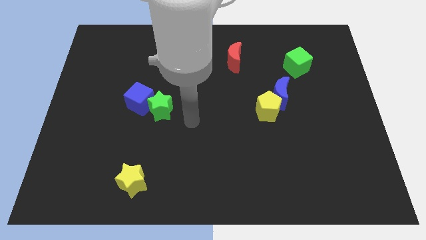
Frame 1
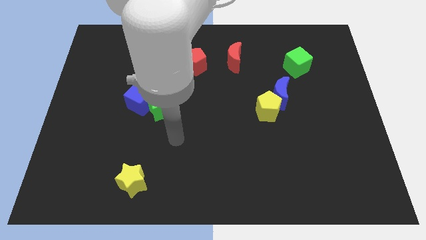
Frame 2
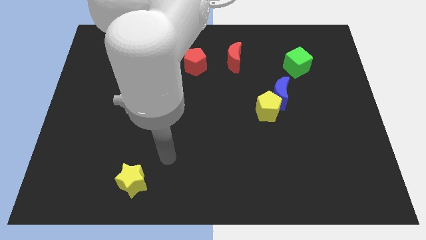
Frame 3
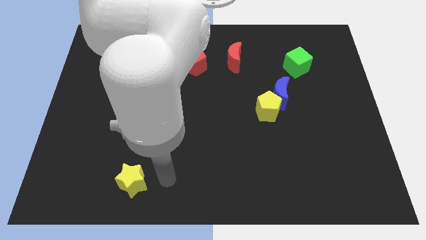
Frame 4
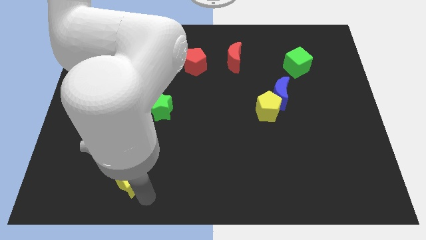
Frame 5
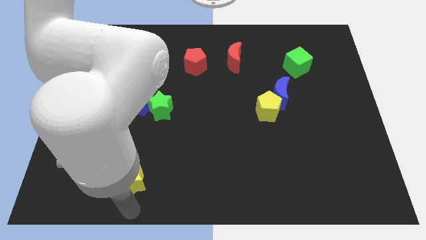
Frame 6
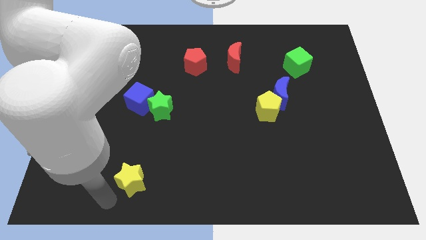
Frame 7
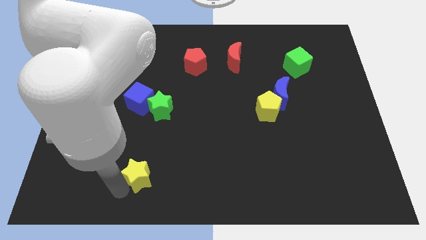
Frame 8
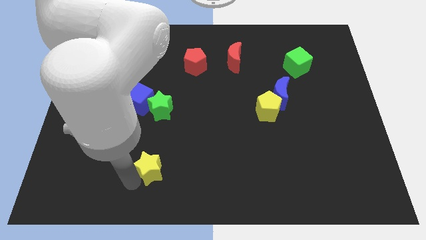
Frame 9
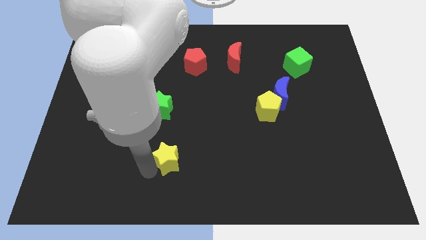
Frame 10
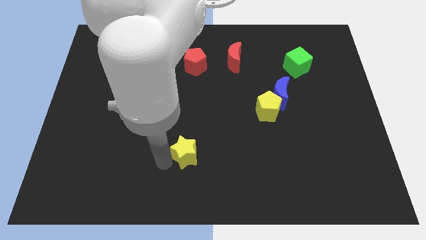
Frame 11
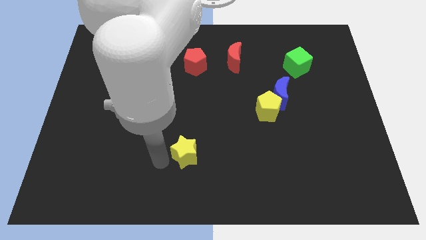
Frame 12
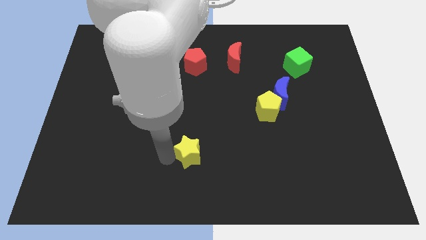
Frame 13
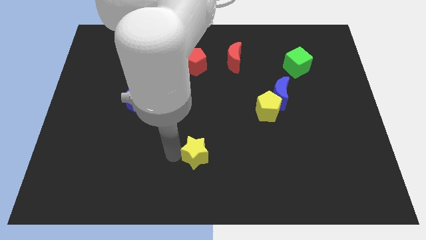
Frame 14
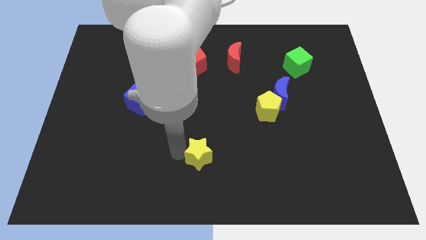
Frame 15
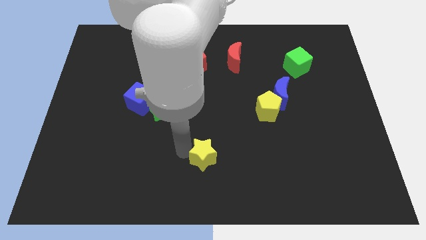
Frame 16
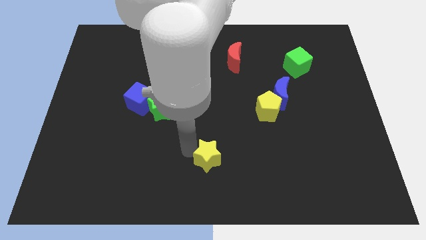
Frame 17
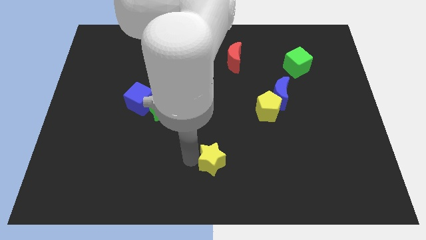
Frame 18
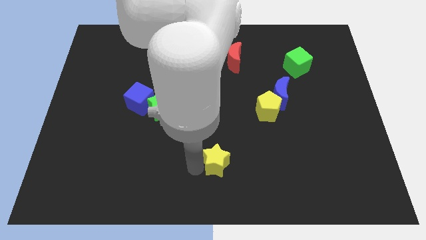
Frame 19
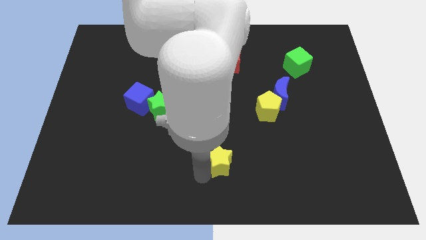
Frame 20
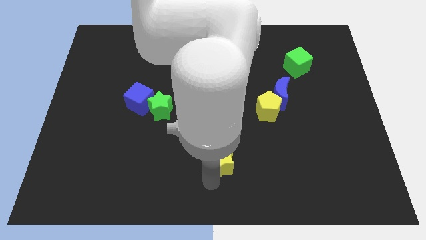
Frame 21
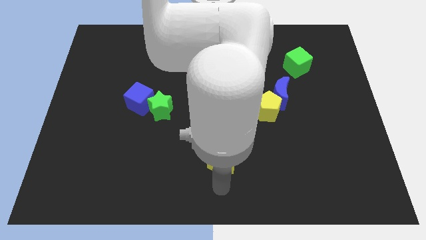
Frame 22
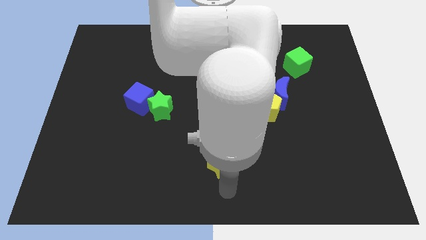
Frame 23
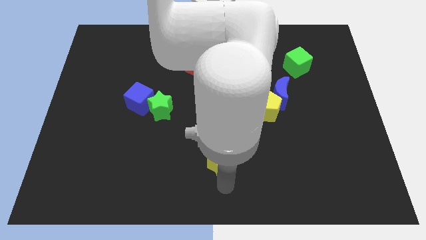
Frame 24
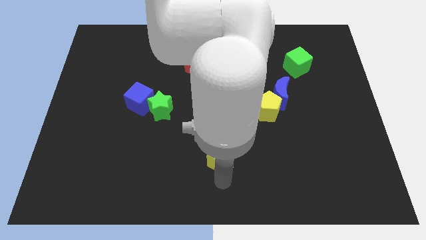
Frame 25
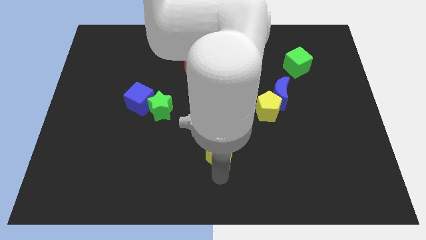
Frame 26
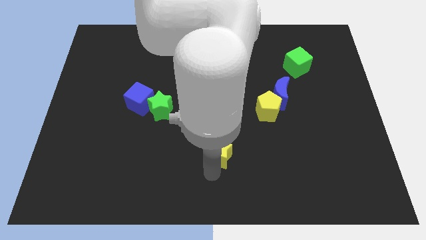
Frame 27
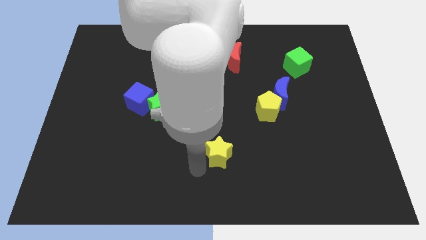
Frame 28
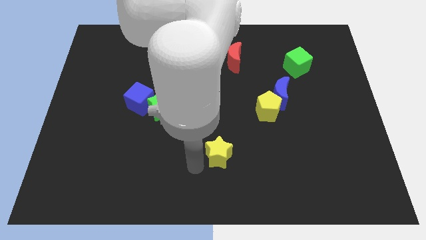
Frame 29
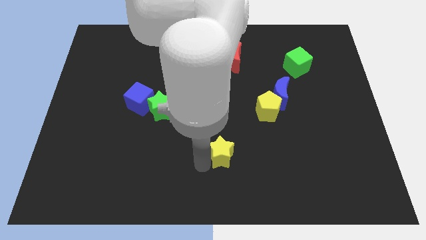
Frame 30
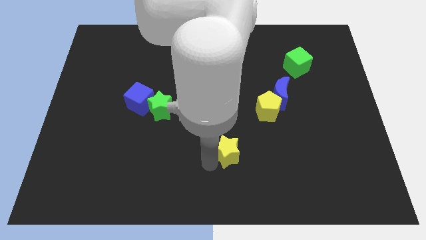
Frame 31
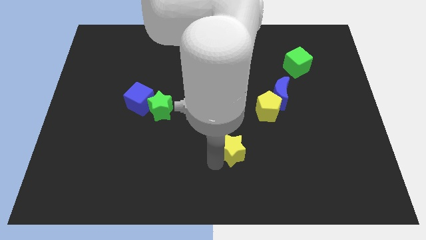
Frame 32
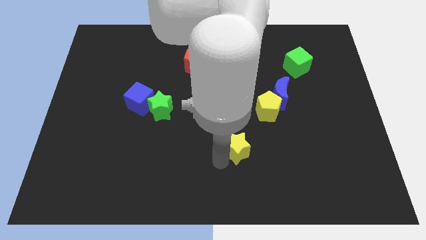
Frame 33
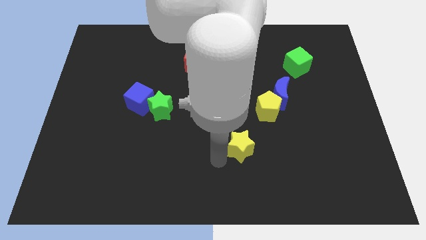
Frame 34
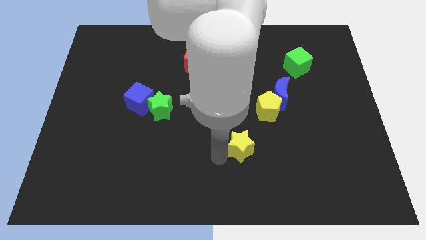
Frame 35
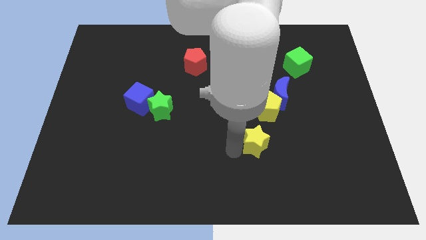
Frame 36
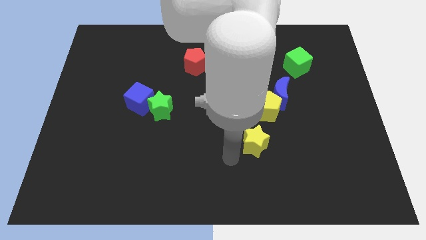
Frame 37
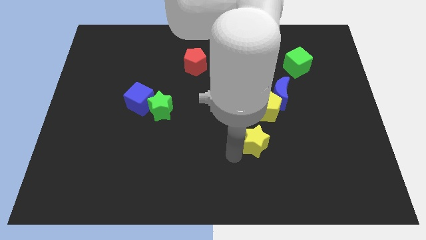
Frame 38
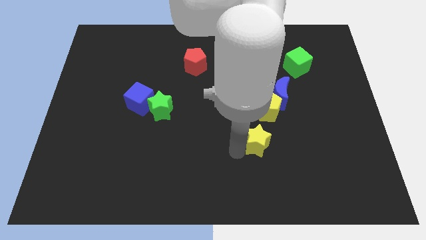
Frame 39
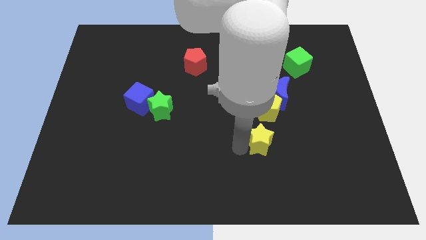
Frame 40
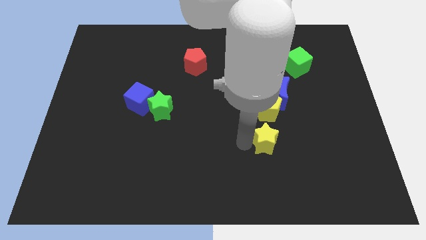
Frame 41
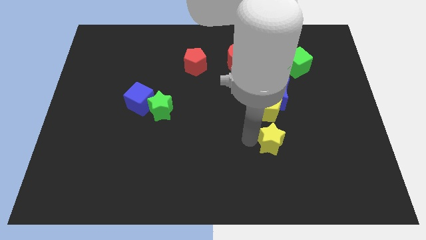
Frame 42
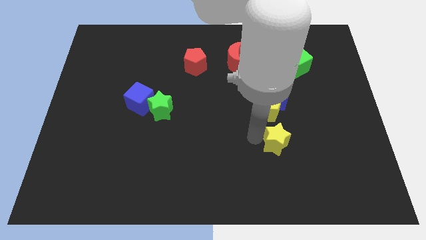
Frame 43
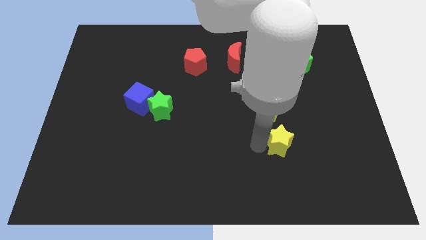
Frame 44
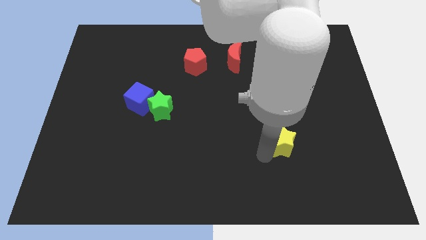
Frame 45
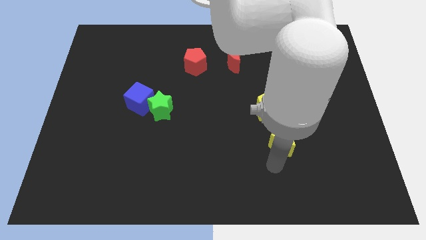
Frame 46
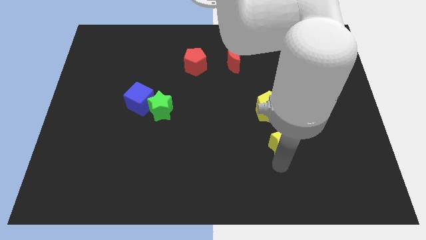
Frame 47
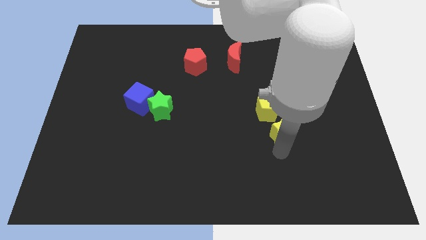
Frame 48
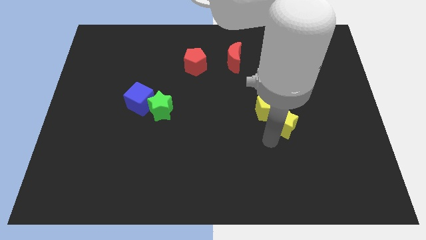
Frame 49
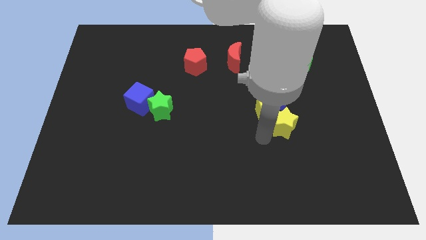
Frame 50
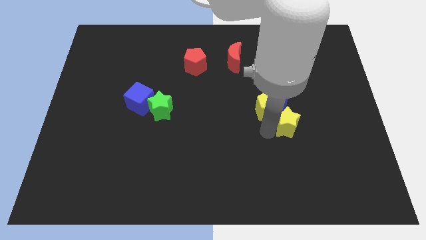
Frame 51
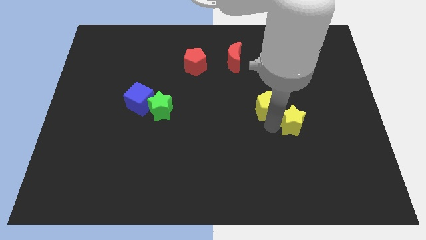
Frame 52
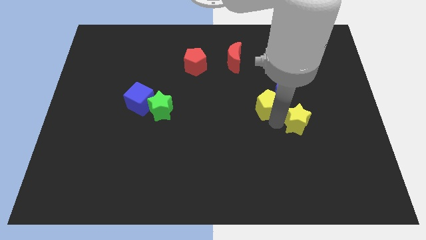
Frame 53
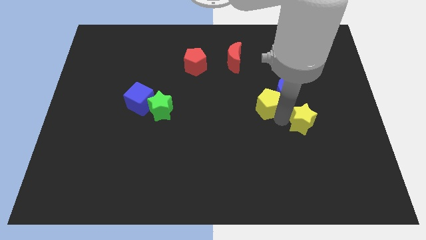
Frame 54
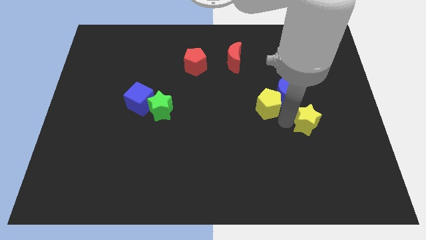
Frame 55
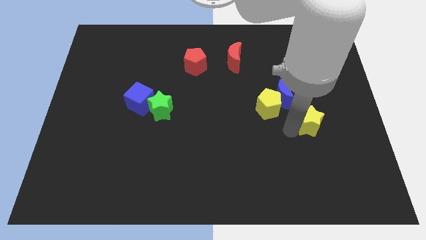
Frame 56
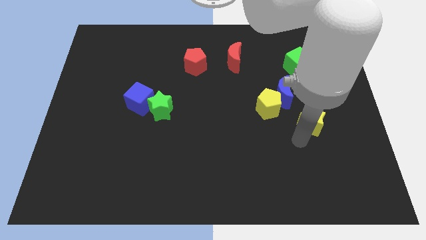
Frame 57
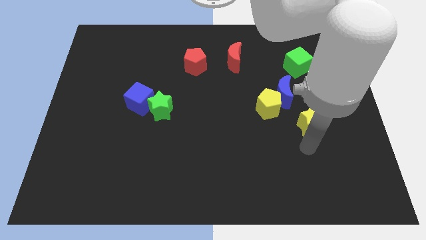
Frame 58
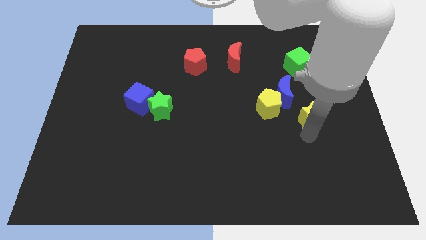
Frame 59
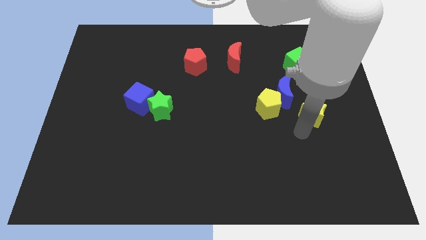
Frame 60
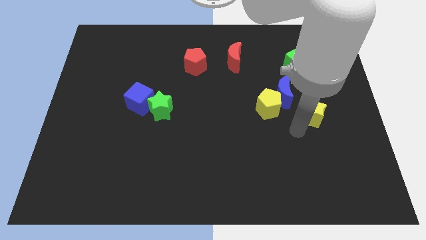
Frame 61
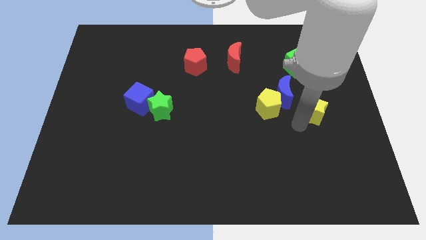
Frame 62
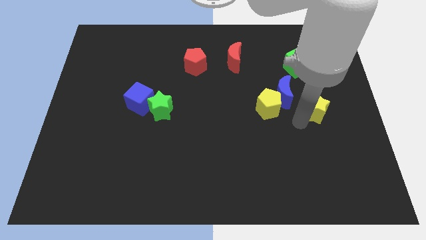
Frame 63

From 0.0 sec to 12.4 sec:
move the yellow star to the right side of the blue moon

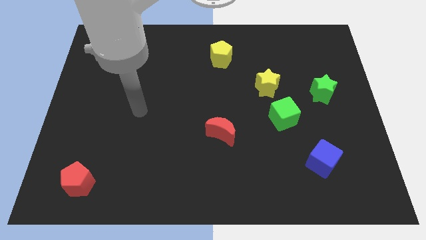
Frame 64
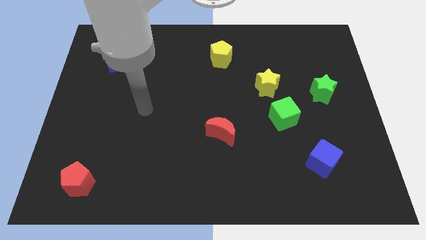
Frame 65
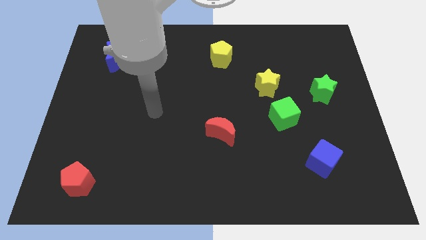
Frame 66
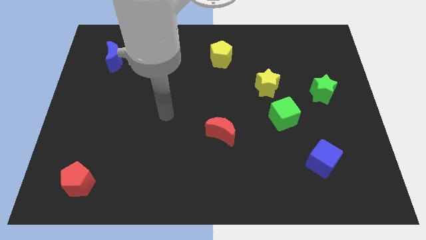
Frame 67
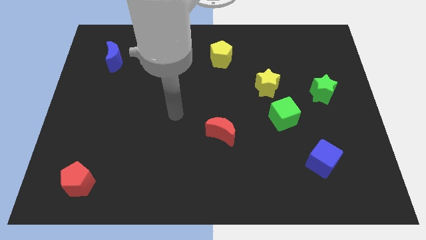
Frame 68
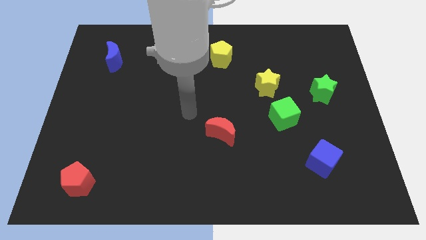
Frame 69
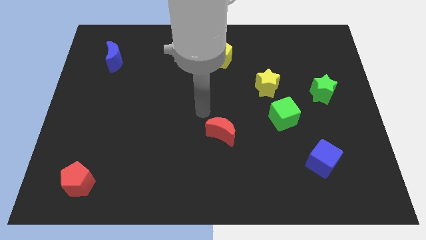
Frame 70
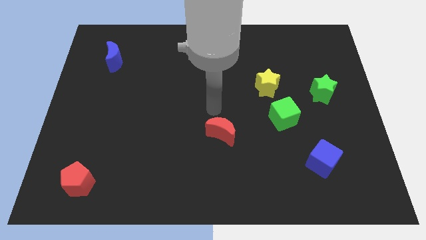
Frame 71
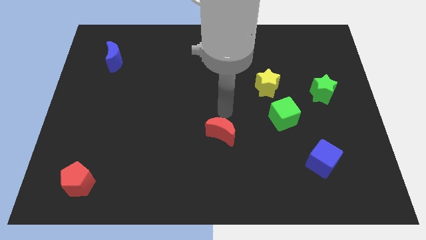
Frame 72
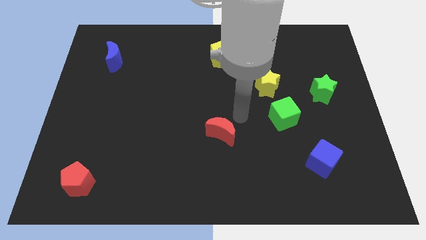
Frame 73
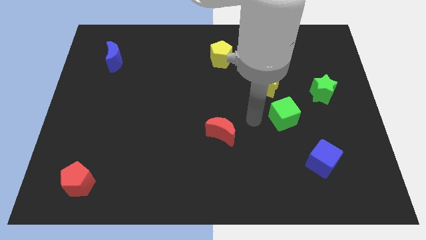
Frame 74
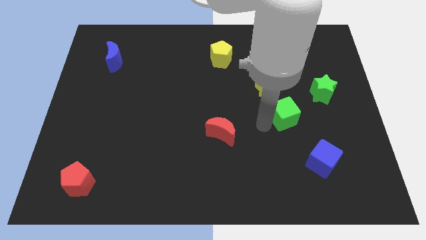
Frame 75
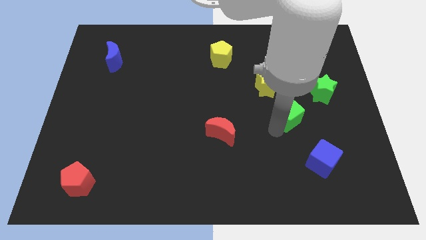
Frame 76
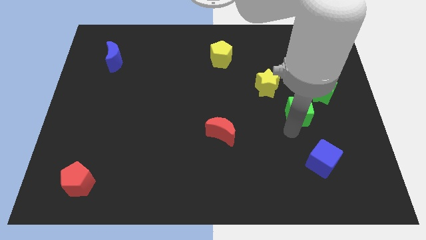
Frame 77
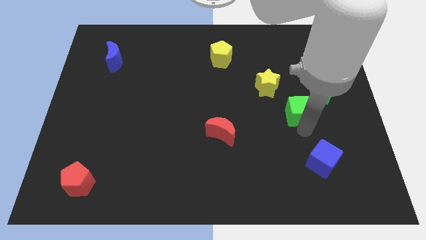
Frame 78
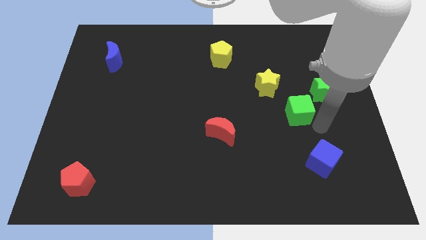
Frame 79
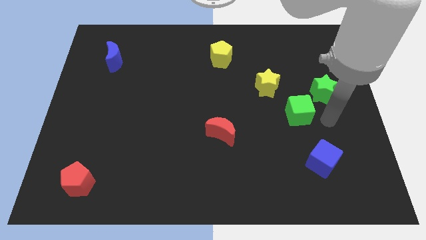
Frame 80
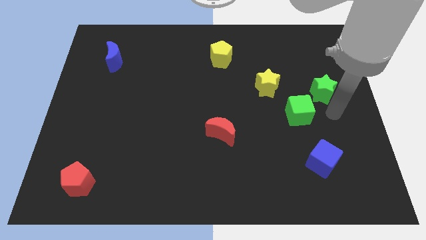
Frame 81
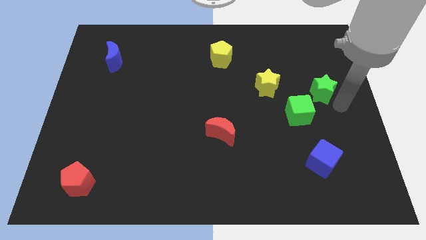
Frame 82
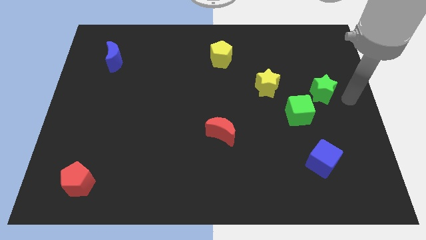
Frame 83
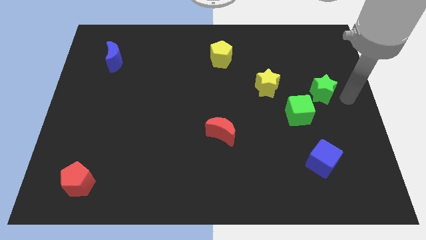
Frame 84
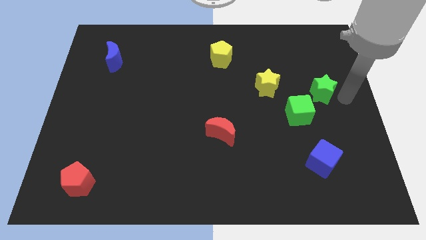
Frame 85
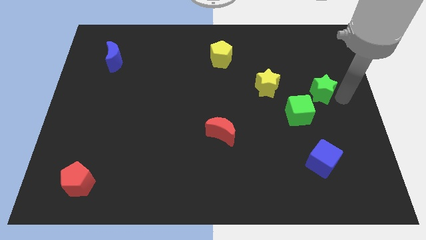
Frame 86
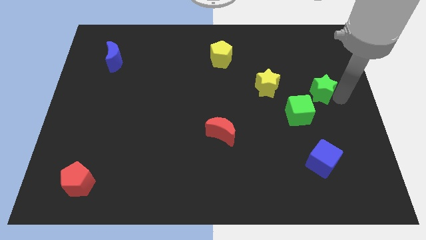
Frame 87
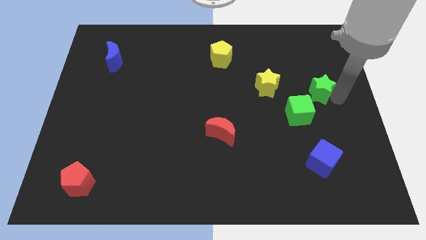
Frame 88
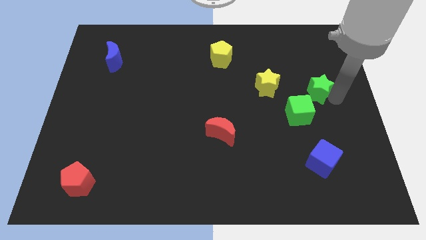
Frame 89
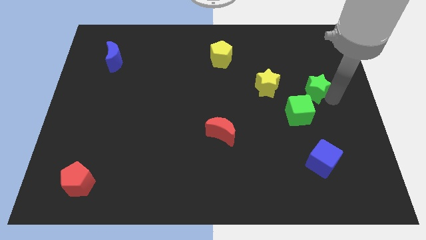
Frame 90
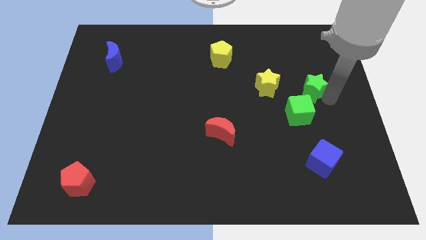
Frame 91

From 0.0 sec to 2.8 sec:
slide the green star above the green cube
